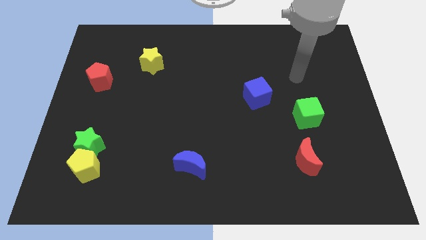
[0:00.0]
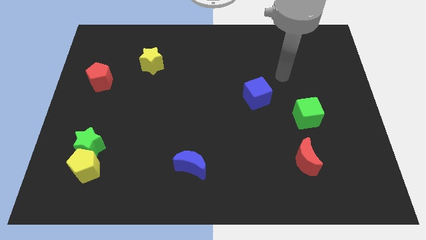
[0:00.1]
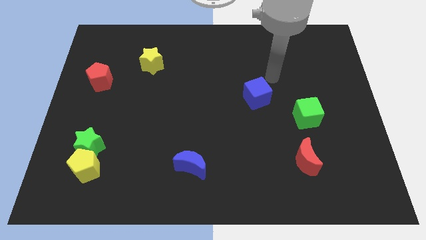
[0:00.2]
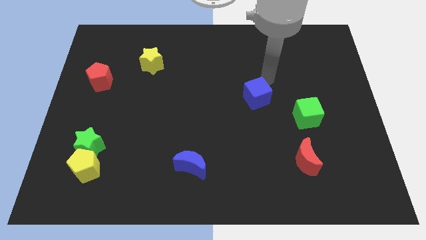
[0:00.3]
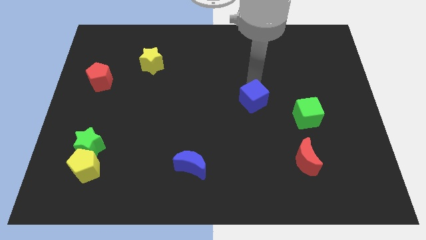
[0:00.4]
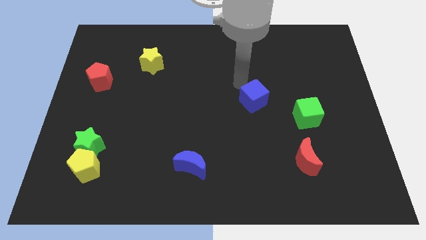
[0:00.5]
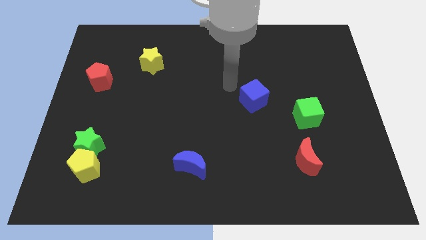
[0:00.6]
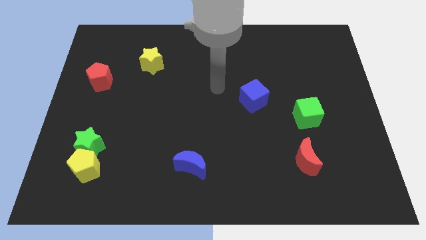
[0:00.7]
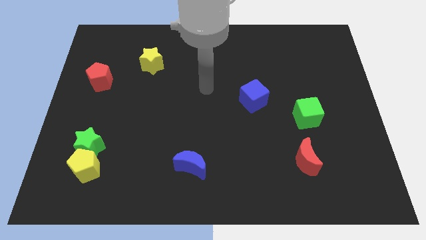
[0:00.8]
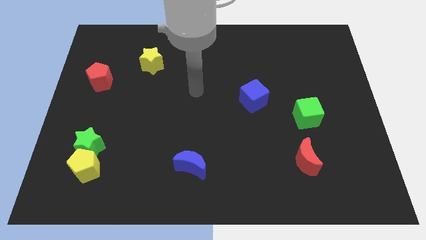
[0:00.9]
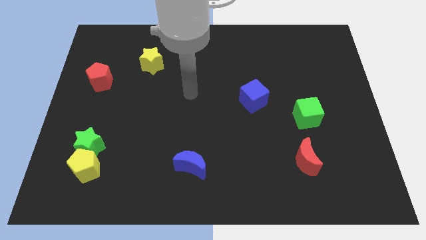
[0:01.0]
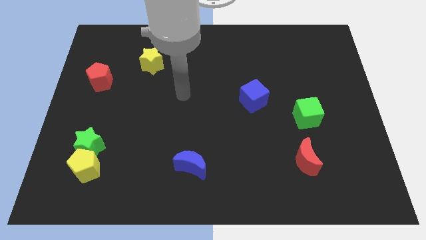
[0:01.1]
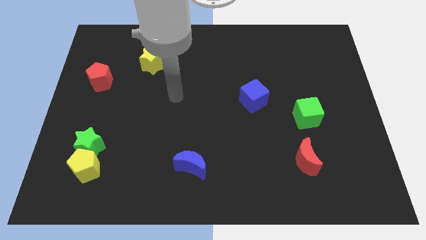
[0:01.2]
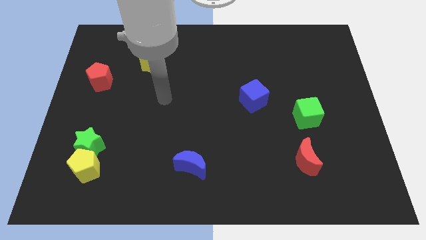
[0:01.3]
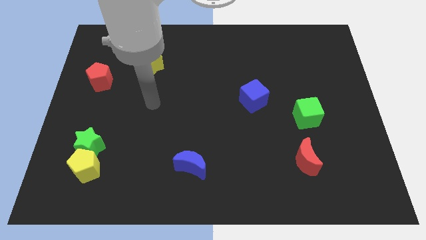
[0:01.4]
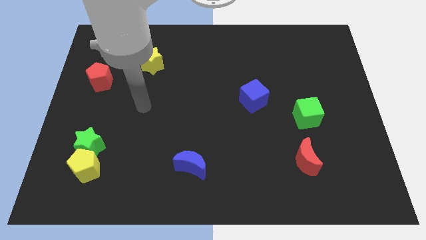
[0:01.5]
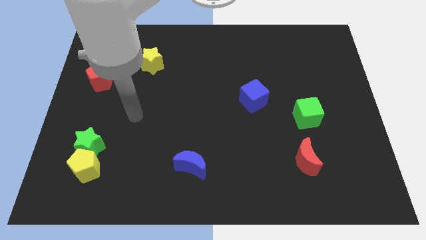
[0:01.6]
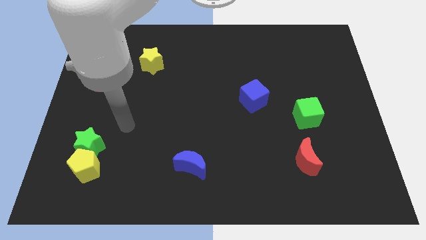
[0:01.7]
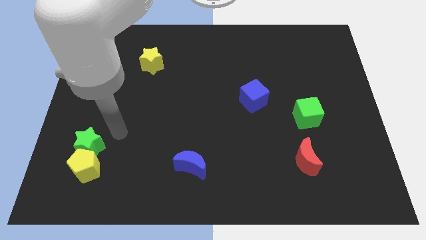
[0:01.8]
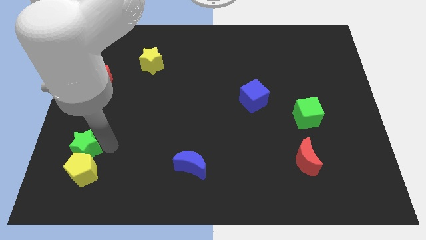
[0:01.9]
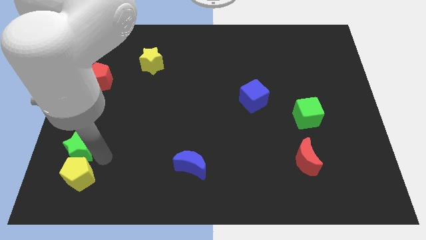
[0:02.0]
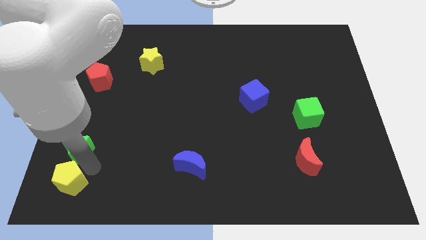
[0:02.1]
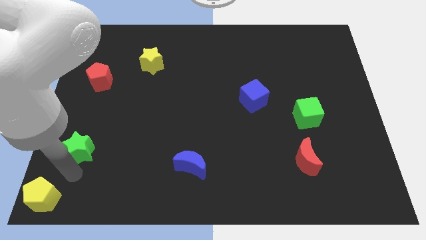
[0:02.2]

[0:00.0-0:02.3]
separate the green star from the yellow pentagon

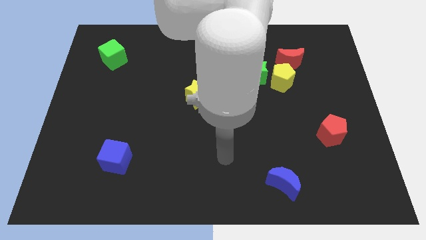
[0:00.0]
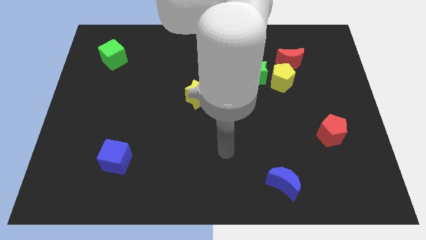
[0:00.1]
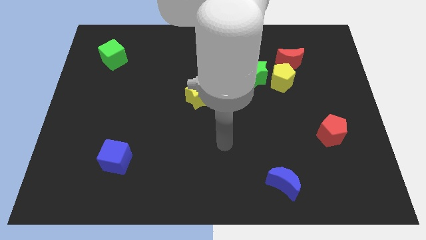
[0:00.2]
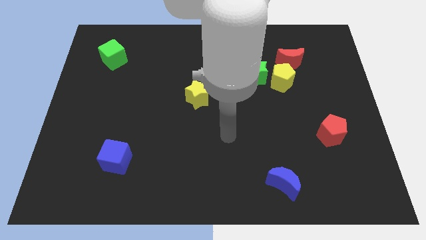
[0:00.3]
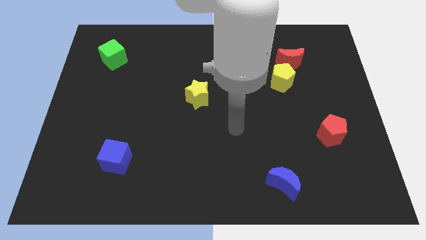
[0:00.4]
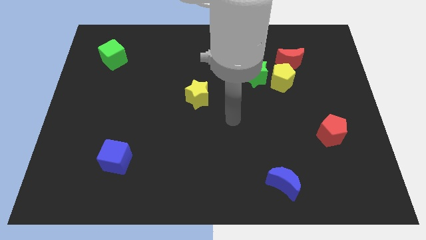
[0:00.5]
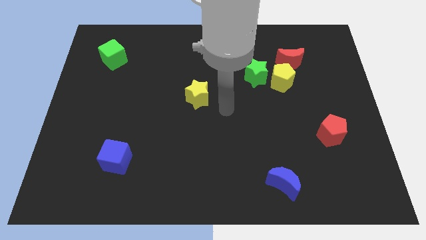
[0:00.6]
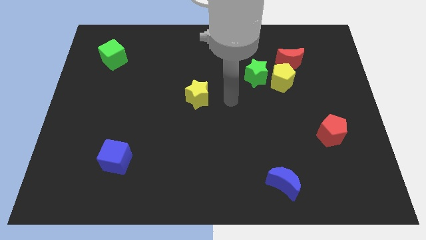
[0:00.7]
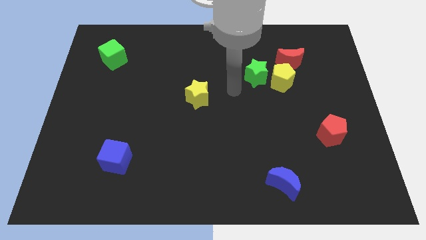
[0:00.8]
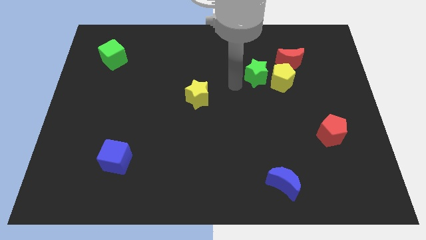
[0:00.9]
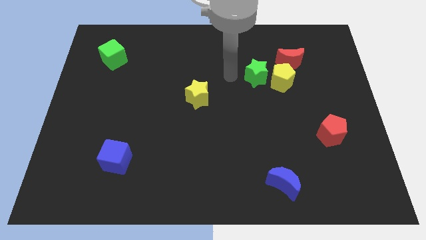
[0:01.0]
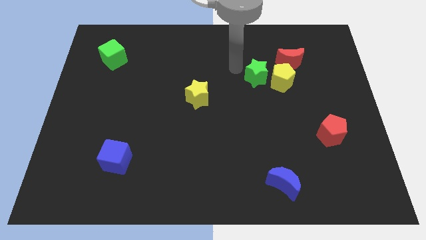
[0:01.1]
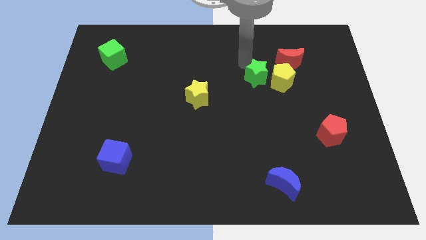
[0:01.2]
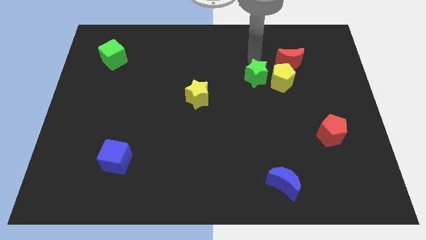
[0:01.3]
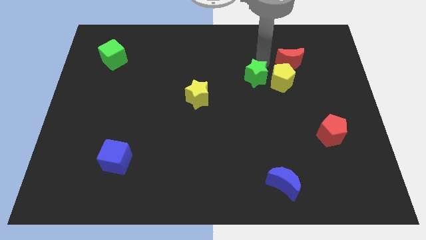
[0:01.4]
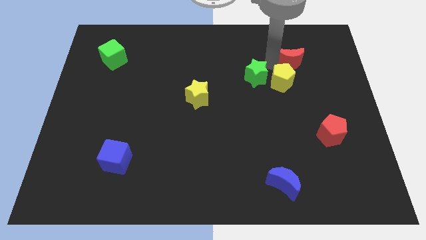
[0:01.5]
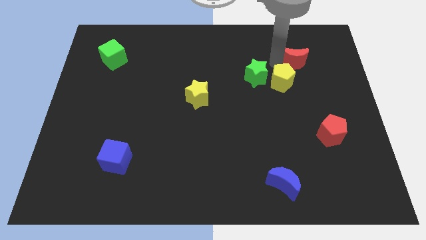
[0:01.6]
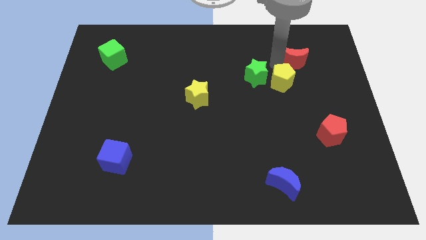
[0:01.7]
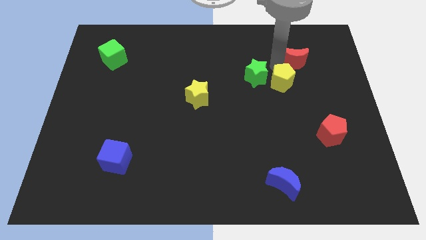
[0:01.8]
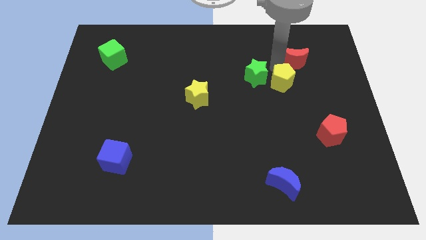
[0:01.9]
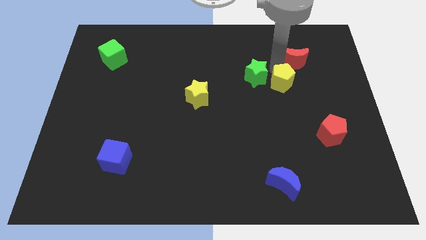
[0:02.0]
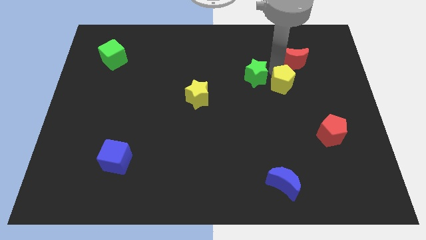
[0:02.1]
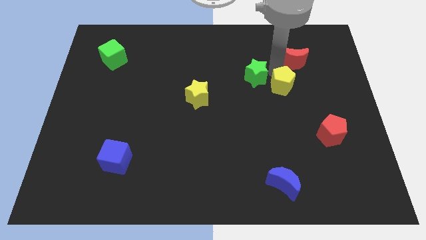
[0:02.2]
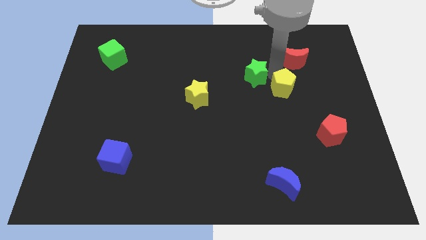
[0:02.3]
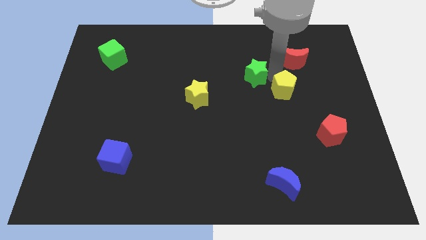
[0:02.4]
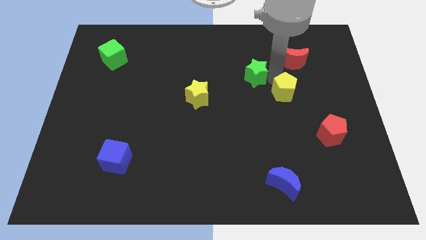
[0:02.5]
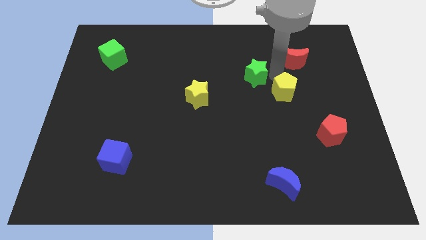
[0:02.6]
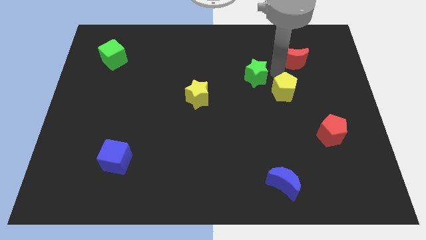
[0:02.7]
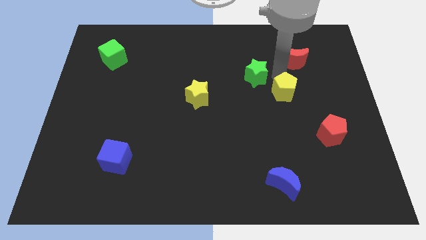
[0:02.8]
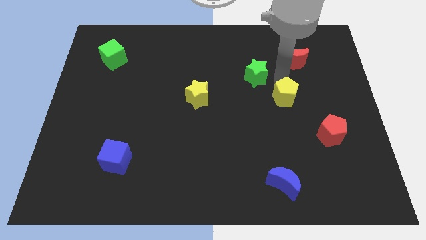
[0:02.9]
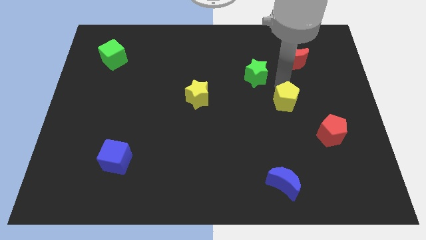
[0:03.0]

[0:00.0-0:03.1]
move the yellow pentagon away from the green star and red moon

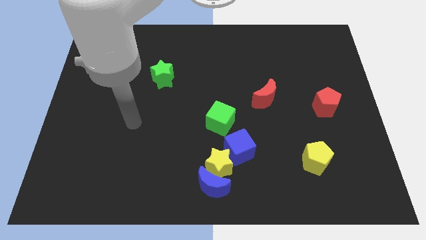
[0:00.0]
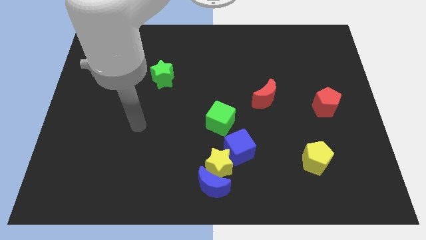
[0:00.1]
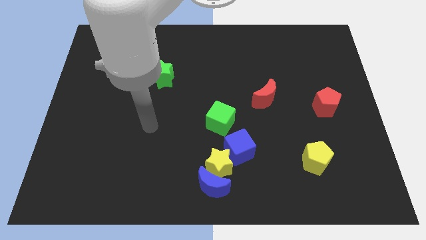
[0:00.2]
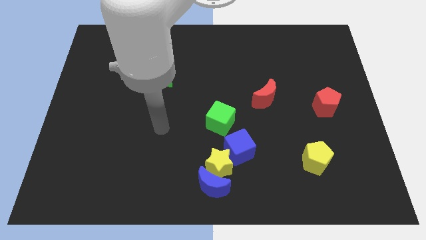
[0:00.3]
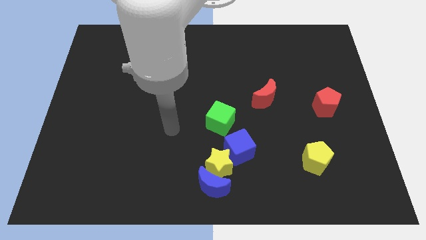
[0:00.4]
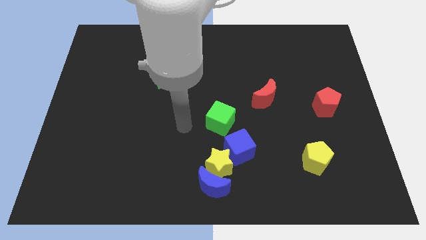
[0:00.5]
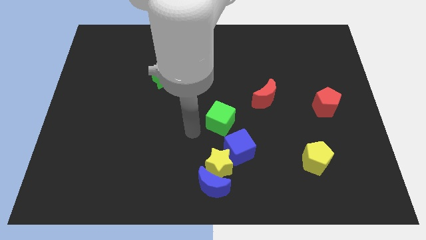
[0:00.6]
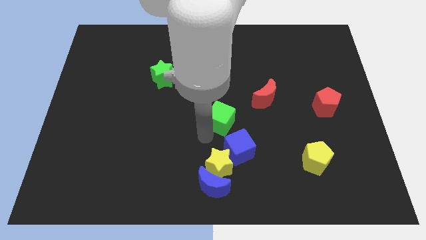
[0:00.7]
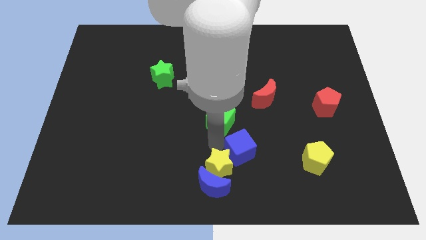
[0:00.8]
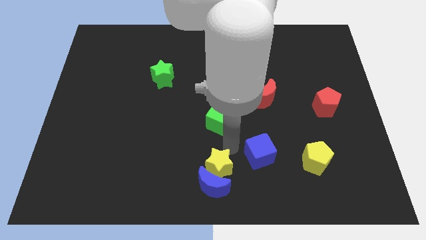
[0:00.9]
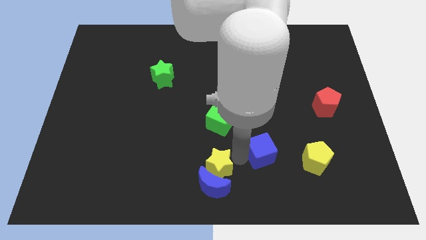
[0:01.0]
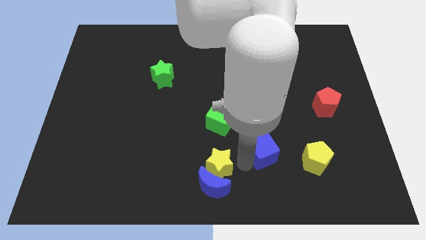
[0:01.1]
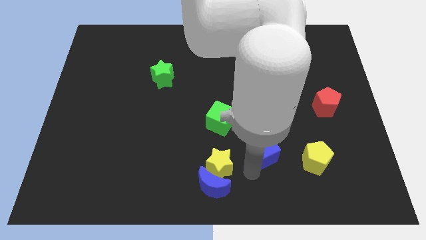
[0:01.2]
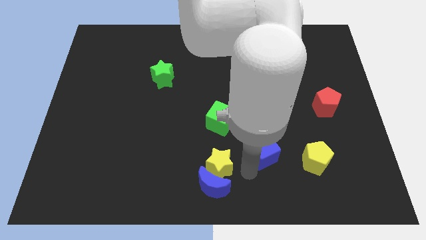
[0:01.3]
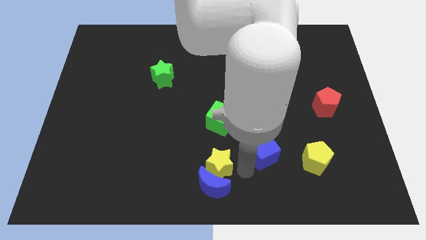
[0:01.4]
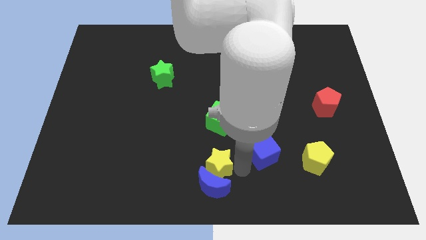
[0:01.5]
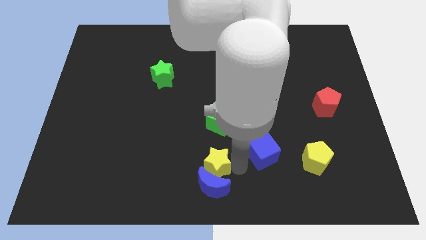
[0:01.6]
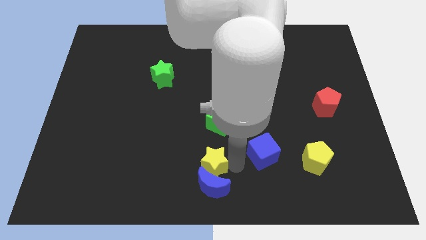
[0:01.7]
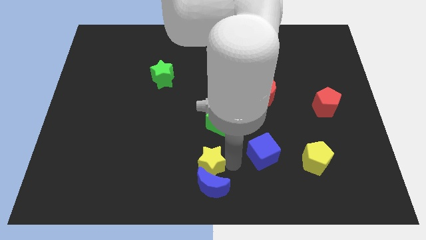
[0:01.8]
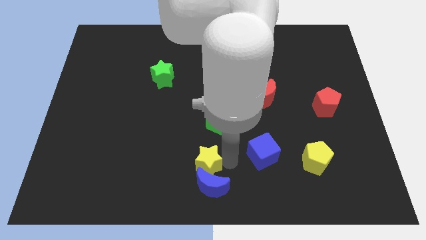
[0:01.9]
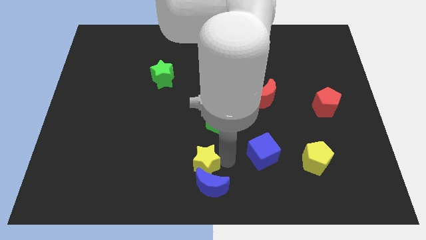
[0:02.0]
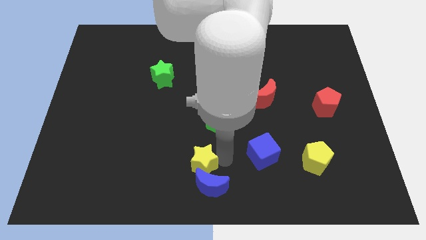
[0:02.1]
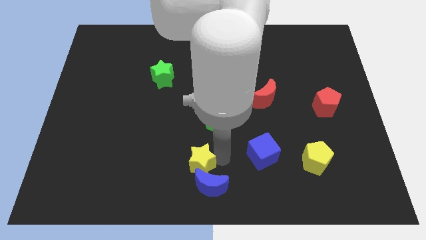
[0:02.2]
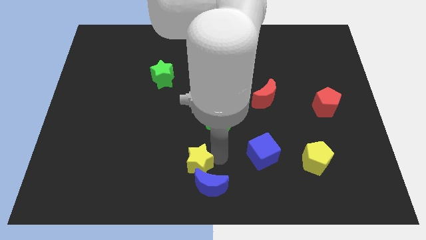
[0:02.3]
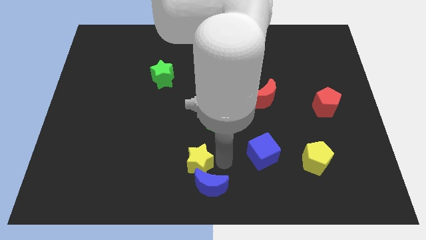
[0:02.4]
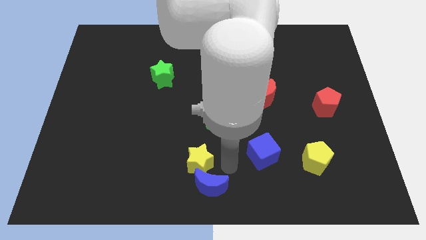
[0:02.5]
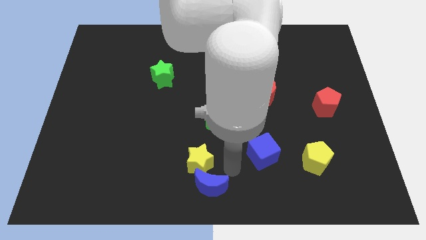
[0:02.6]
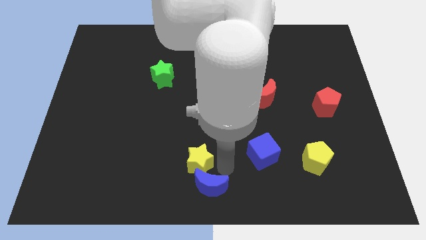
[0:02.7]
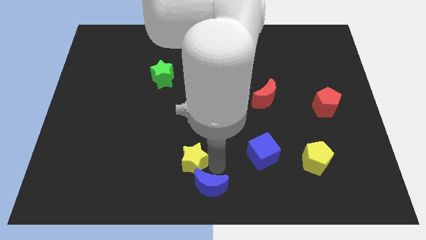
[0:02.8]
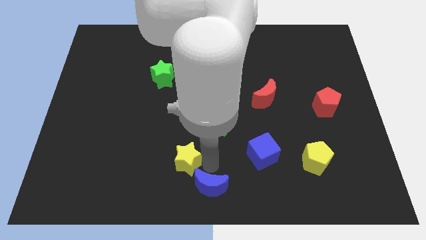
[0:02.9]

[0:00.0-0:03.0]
move the yellow star away from the blue moon and blue cube

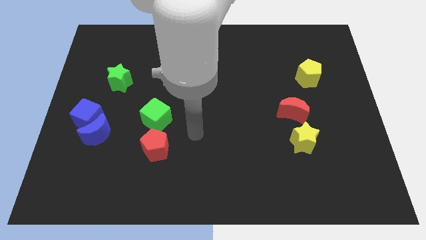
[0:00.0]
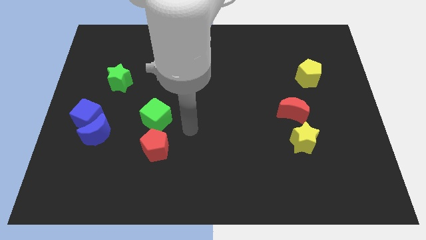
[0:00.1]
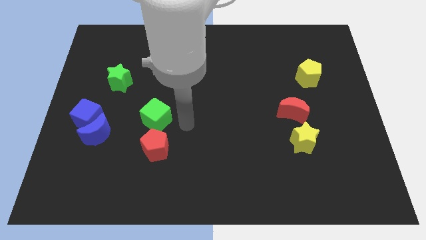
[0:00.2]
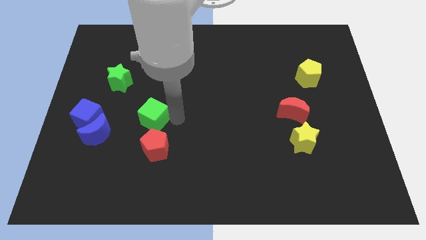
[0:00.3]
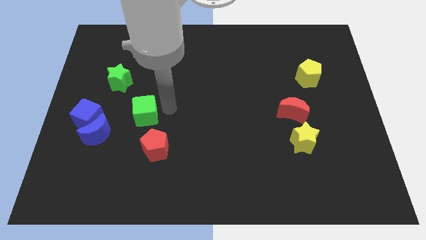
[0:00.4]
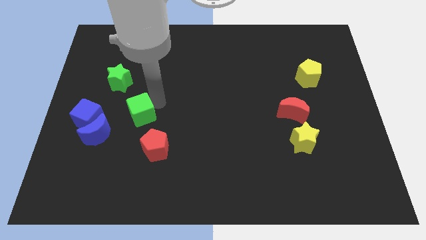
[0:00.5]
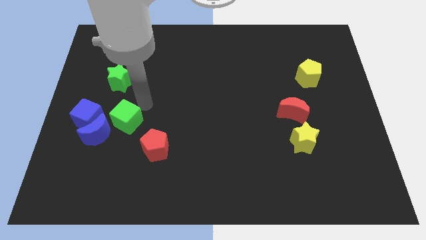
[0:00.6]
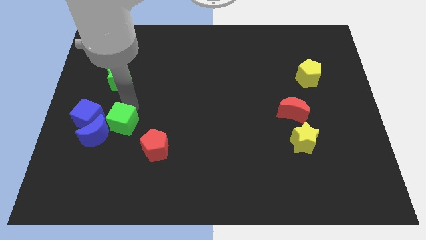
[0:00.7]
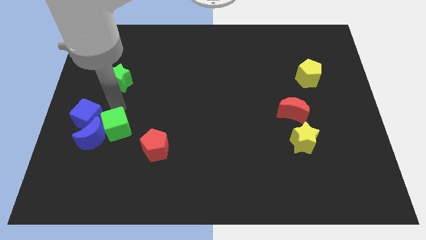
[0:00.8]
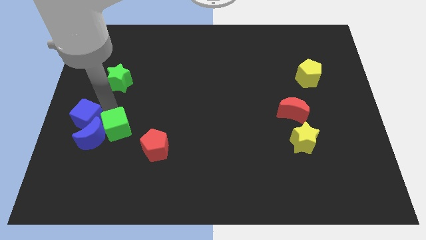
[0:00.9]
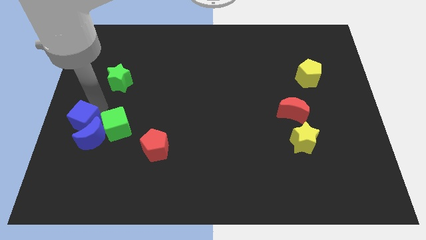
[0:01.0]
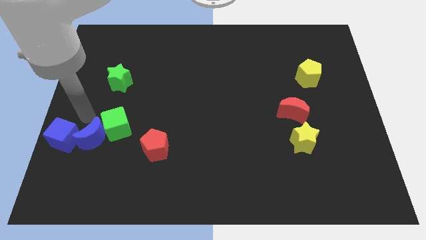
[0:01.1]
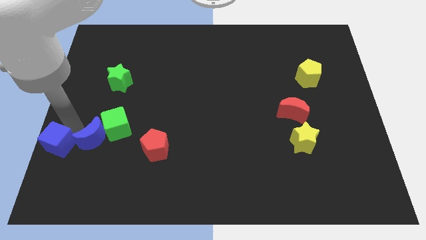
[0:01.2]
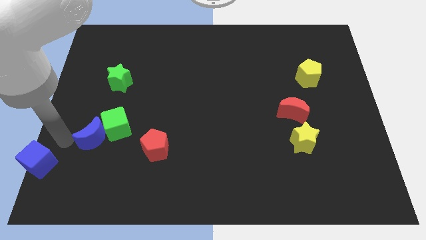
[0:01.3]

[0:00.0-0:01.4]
move the blue moon away from the blue cube
